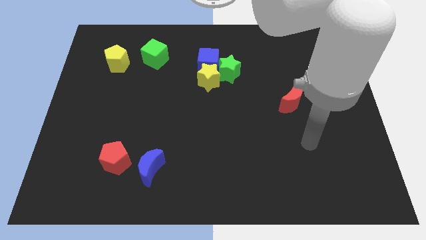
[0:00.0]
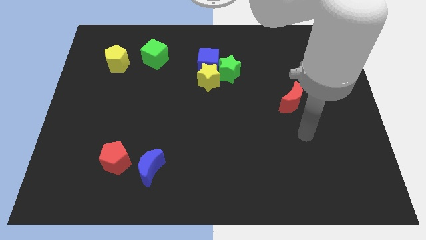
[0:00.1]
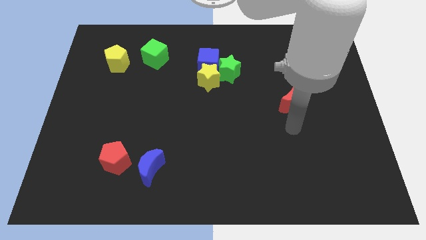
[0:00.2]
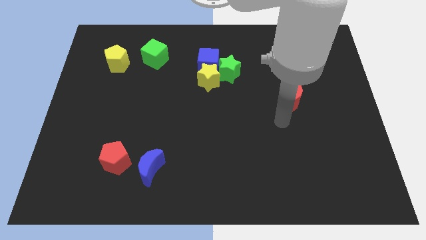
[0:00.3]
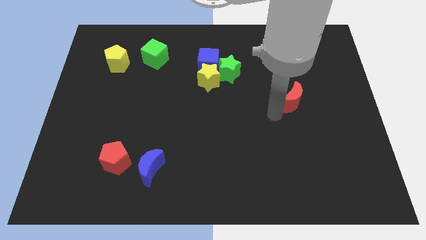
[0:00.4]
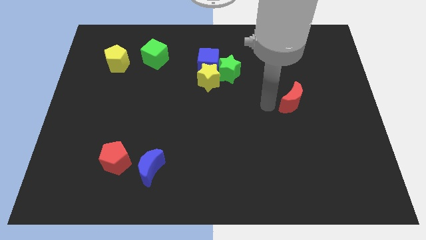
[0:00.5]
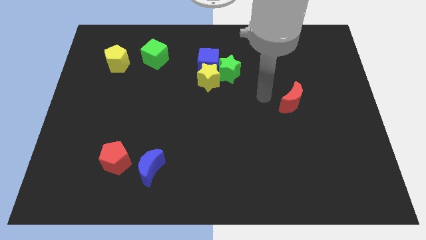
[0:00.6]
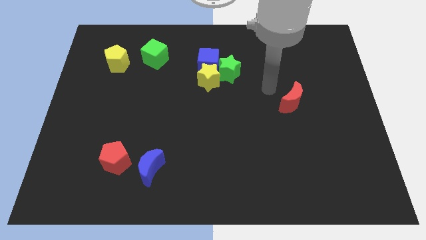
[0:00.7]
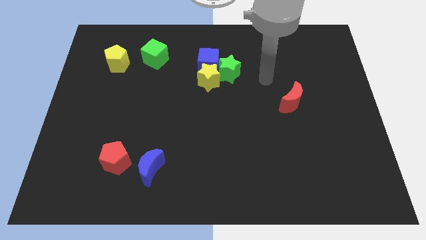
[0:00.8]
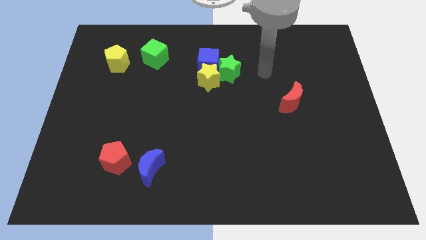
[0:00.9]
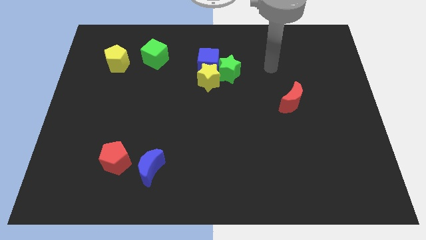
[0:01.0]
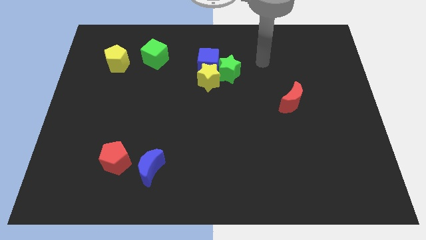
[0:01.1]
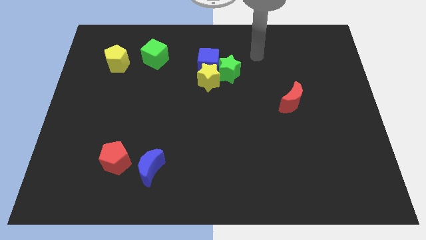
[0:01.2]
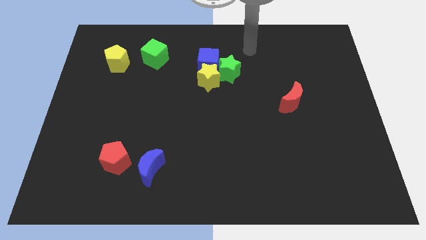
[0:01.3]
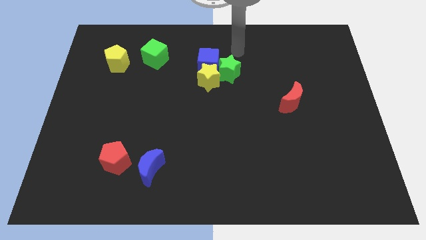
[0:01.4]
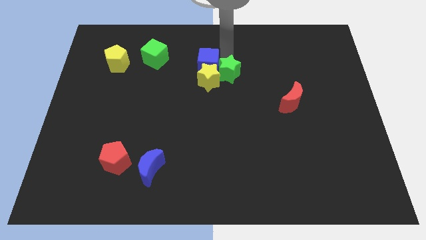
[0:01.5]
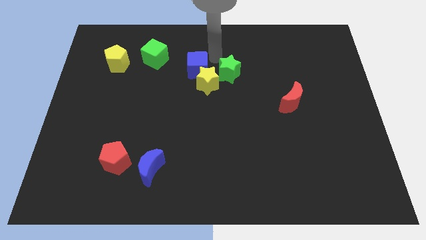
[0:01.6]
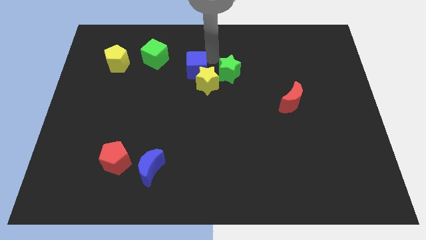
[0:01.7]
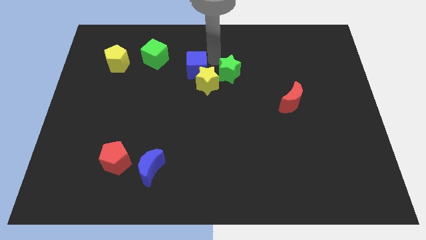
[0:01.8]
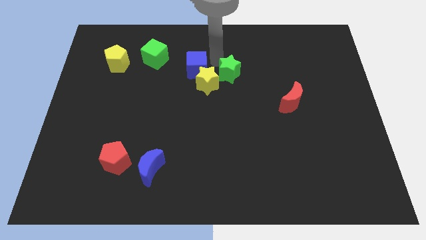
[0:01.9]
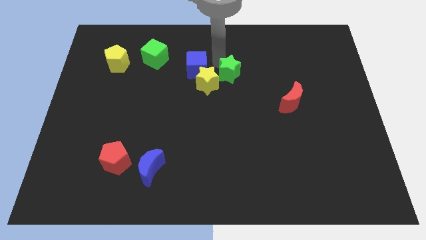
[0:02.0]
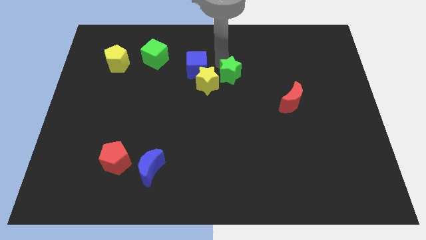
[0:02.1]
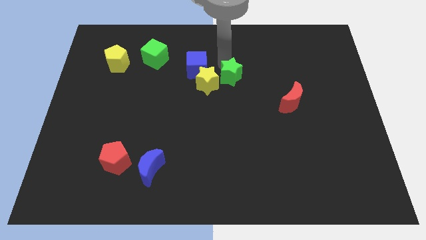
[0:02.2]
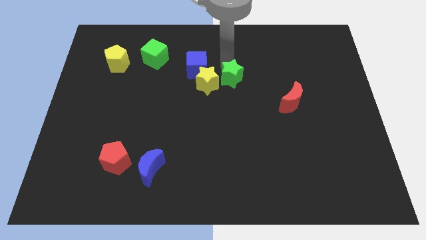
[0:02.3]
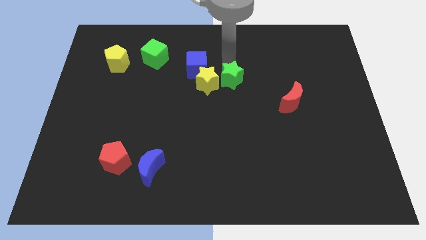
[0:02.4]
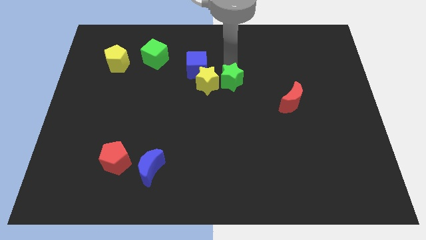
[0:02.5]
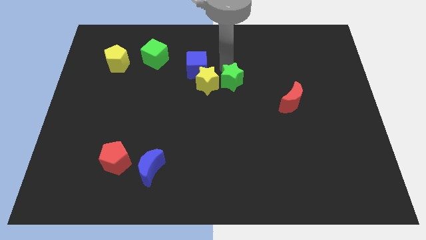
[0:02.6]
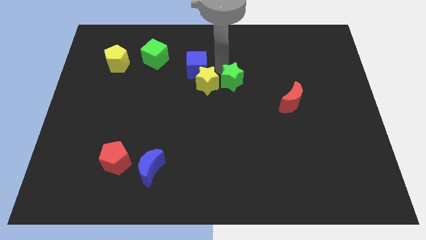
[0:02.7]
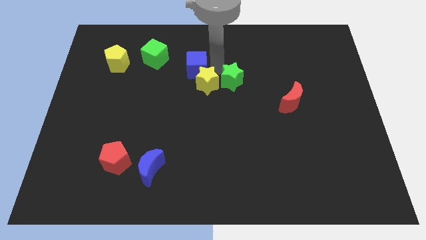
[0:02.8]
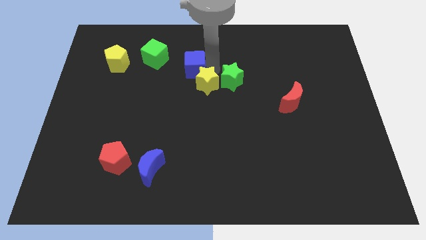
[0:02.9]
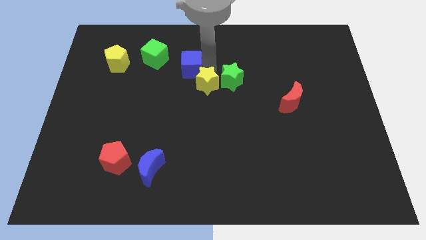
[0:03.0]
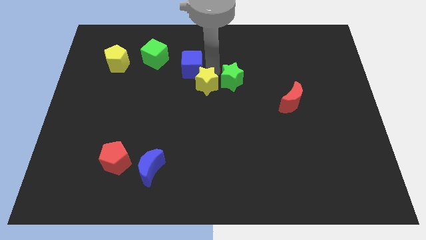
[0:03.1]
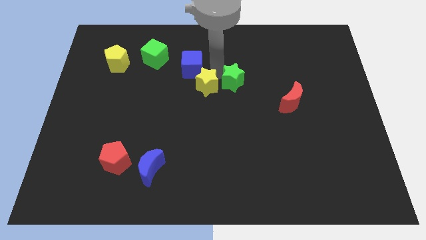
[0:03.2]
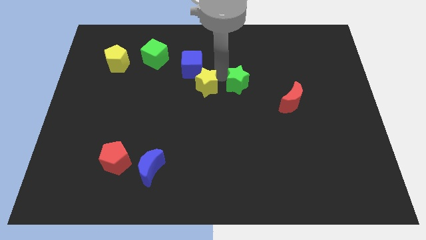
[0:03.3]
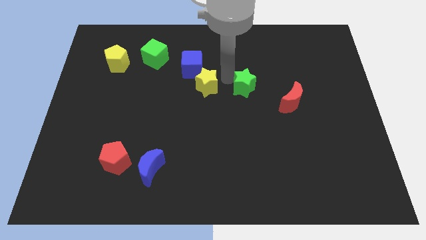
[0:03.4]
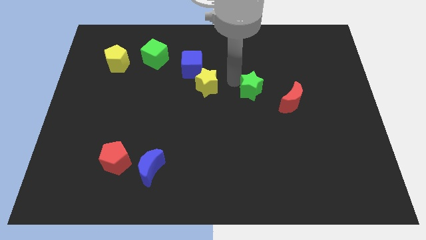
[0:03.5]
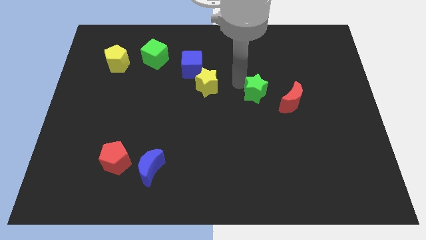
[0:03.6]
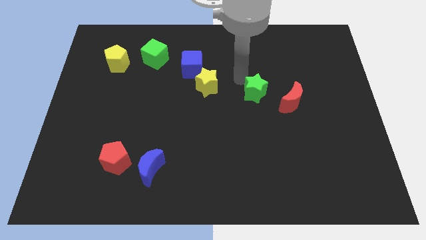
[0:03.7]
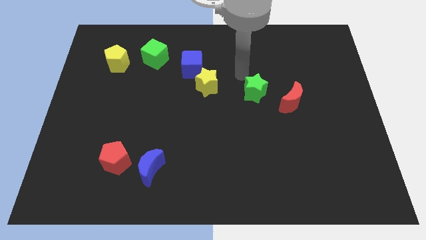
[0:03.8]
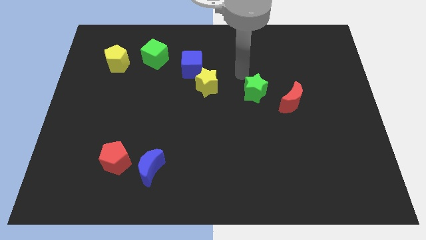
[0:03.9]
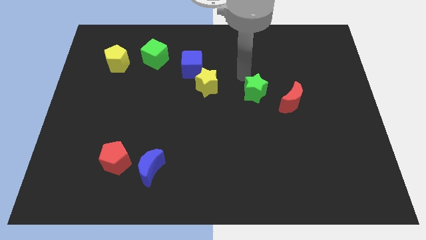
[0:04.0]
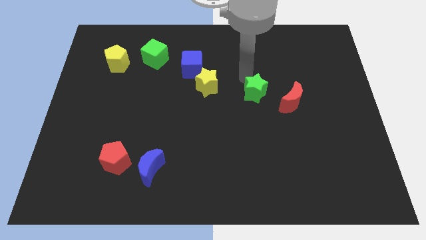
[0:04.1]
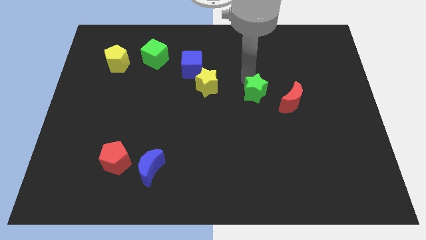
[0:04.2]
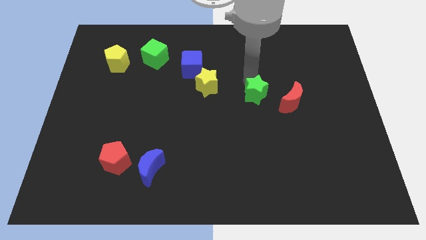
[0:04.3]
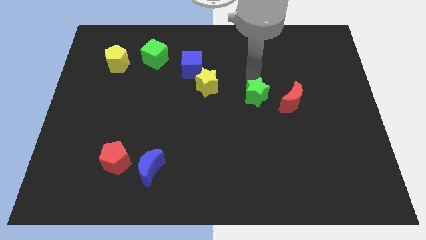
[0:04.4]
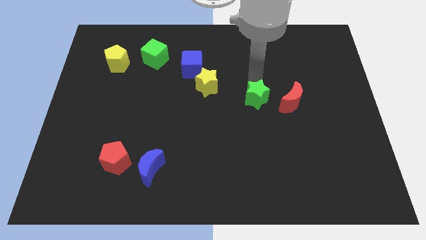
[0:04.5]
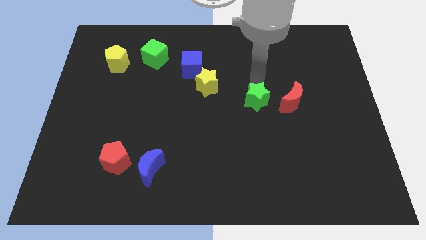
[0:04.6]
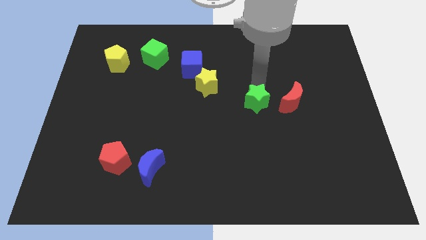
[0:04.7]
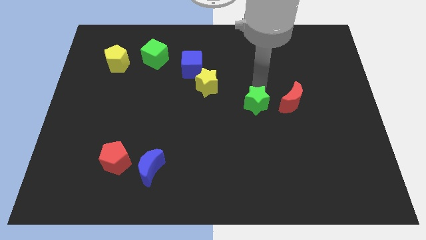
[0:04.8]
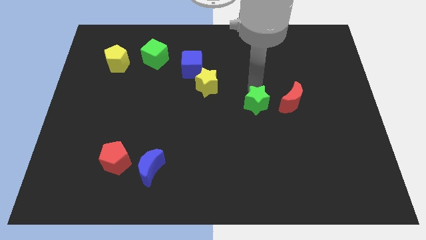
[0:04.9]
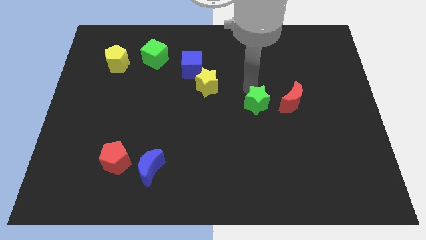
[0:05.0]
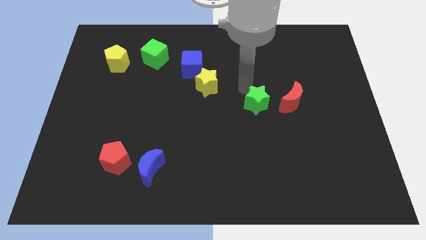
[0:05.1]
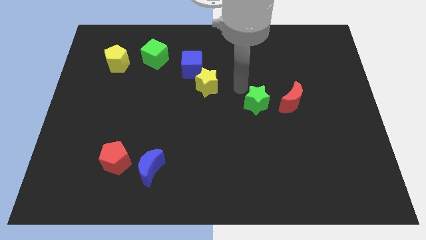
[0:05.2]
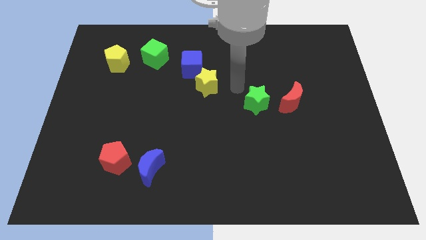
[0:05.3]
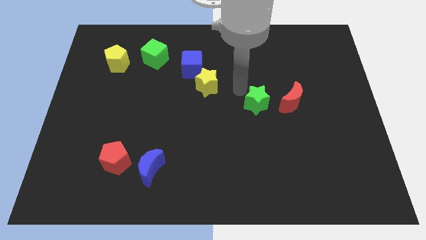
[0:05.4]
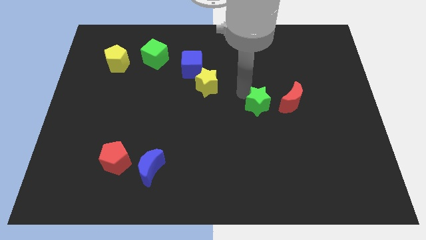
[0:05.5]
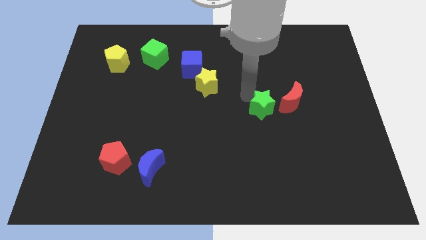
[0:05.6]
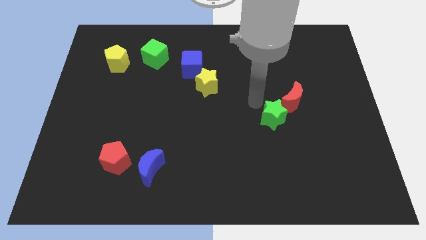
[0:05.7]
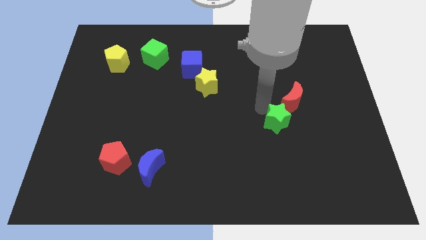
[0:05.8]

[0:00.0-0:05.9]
push the green star below the red moon

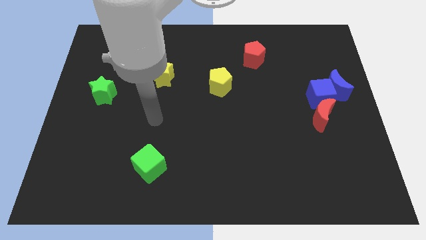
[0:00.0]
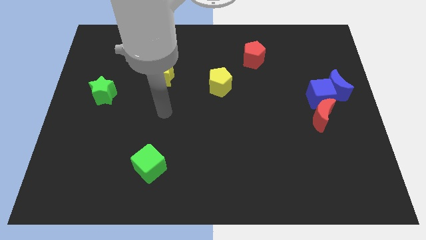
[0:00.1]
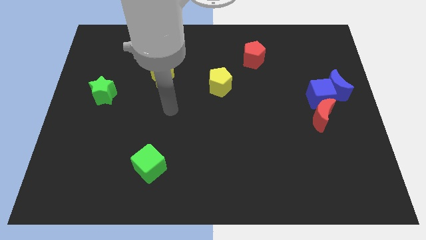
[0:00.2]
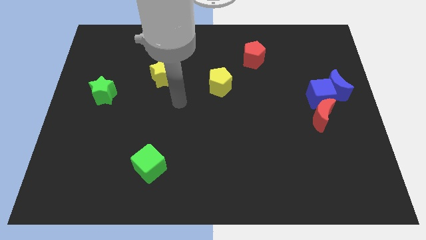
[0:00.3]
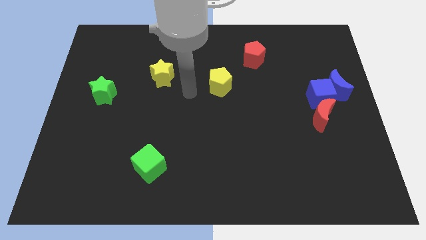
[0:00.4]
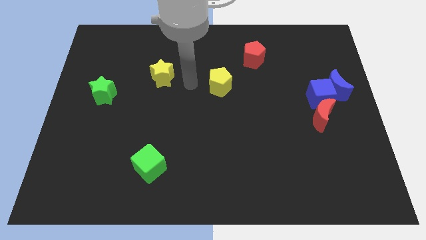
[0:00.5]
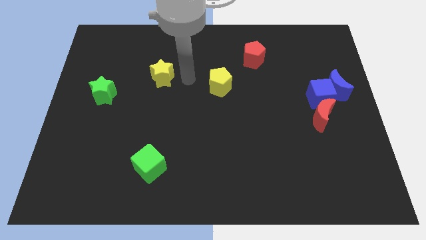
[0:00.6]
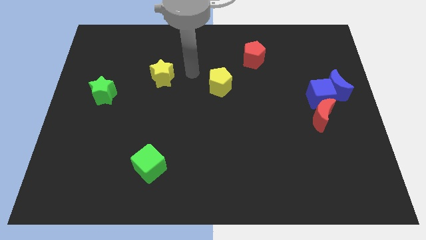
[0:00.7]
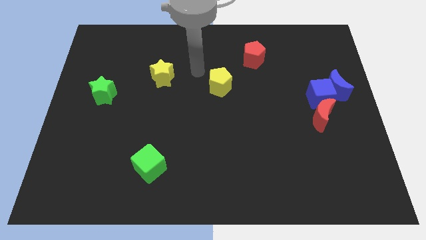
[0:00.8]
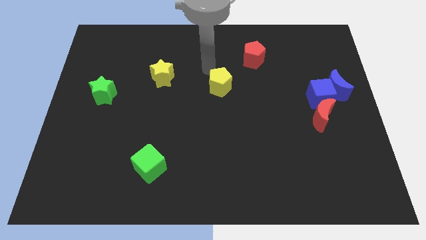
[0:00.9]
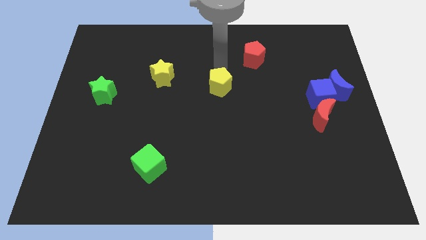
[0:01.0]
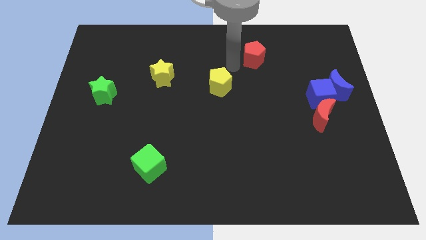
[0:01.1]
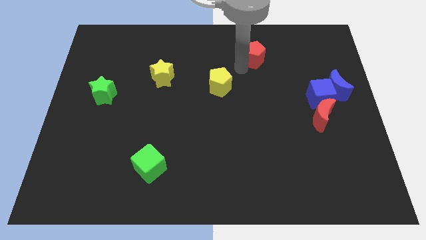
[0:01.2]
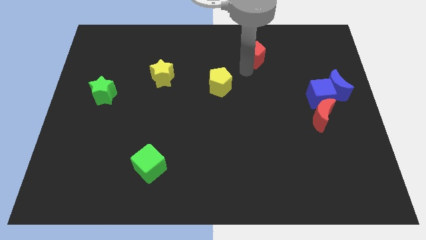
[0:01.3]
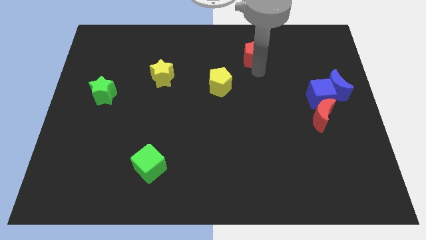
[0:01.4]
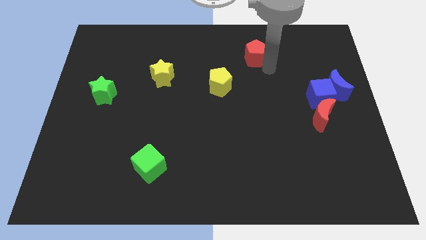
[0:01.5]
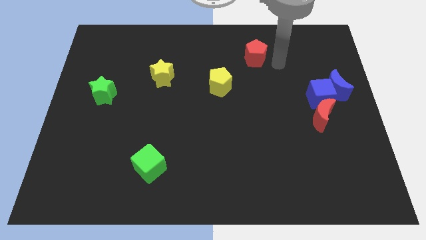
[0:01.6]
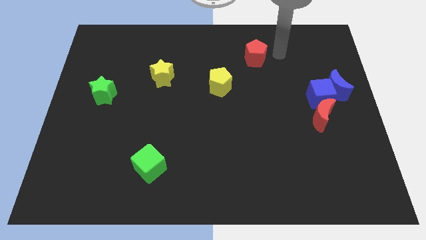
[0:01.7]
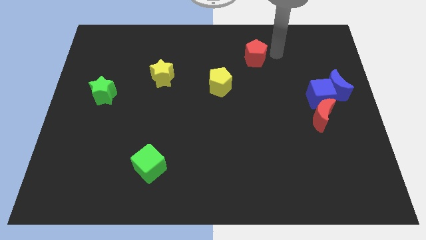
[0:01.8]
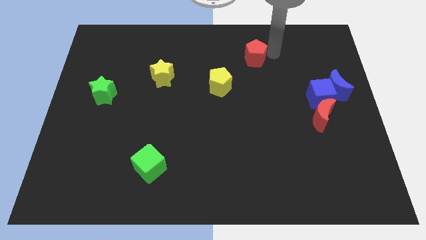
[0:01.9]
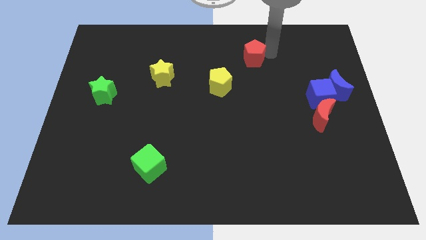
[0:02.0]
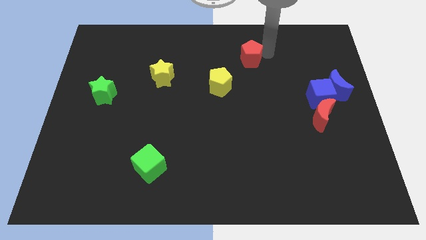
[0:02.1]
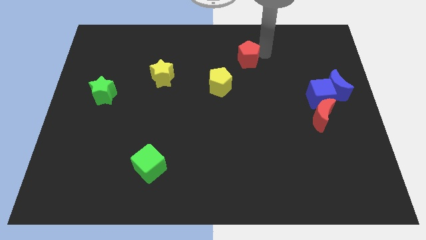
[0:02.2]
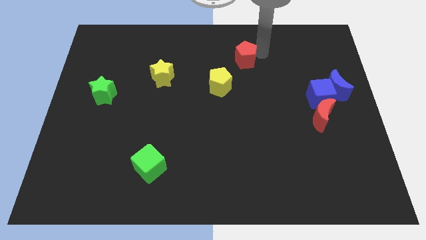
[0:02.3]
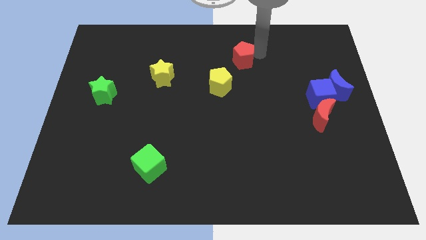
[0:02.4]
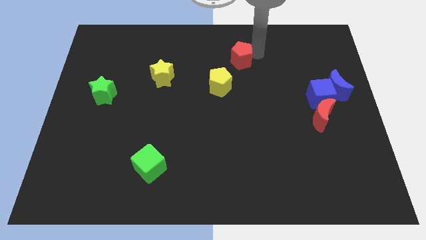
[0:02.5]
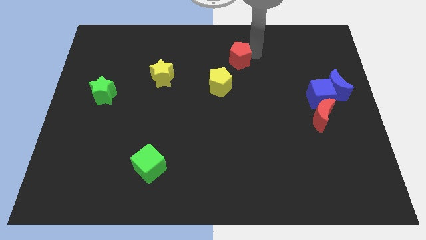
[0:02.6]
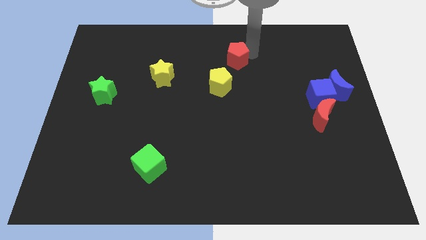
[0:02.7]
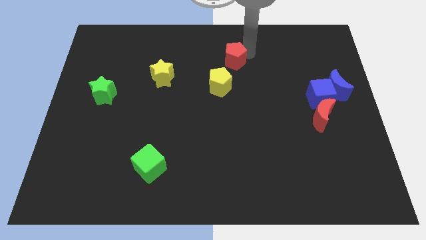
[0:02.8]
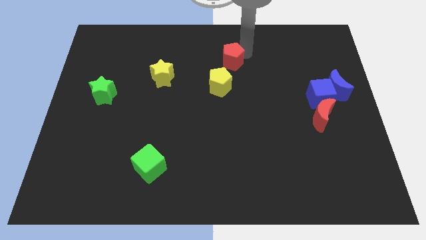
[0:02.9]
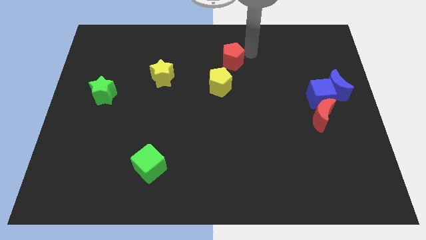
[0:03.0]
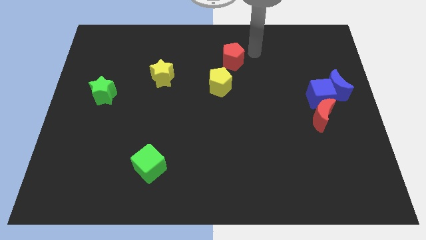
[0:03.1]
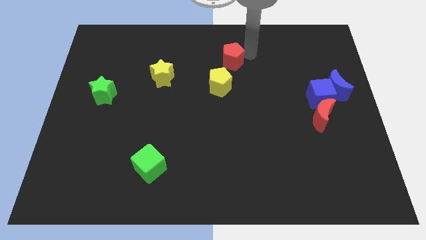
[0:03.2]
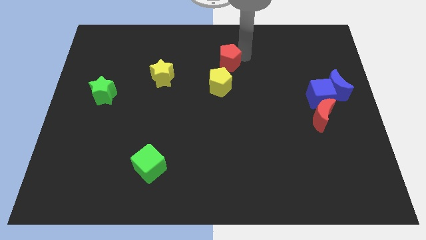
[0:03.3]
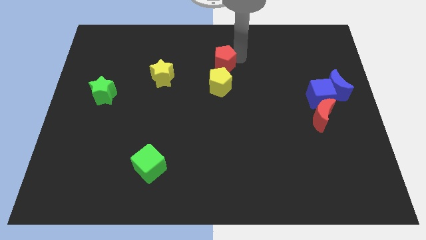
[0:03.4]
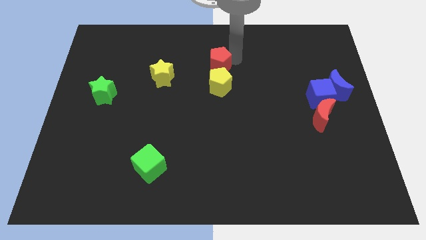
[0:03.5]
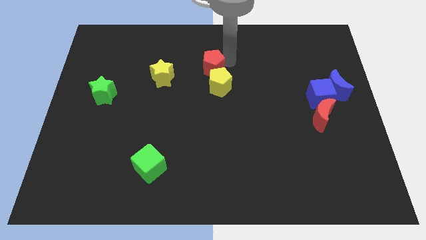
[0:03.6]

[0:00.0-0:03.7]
move the red pentagon diagonally up and to the left of the yellow pentagon
